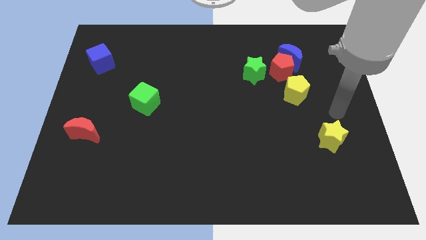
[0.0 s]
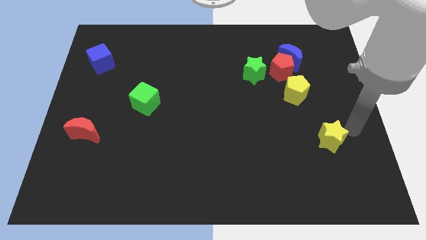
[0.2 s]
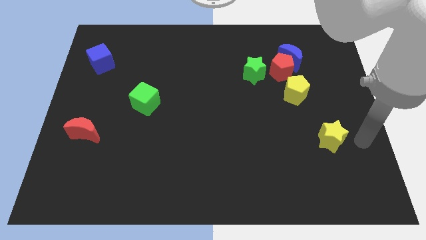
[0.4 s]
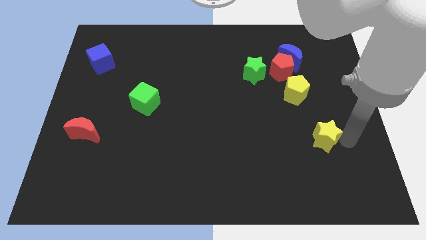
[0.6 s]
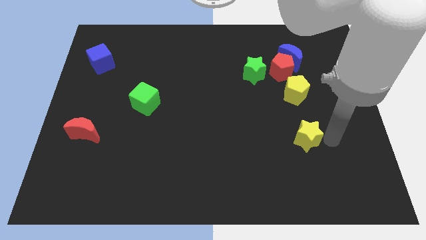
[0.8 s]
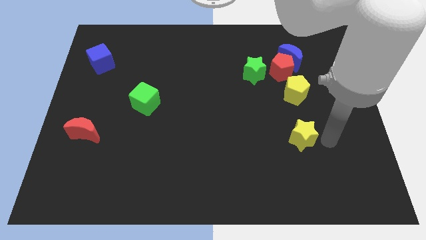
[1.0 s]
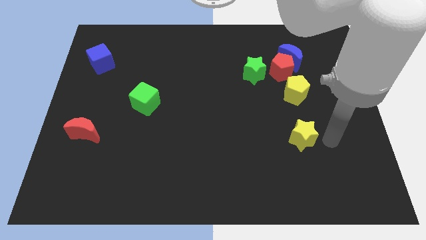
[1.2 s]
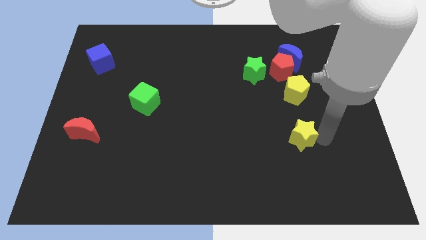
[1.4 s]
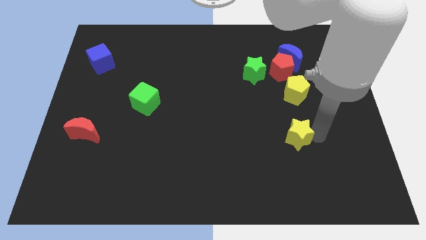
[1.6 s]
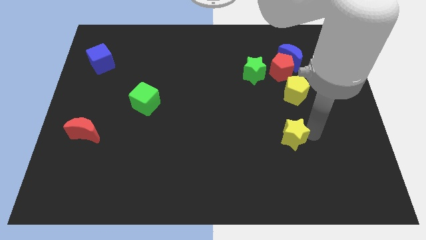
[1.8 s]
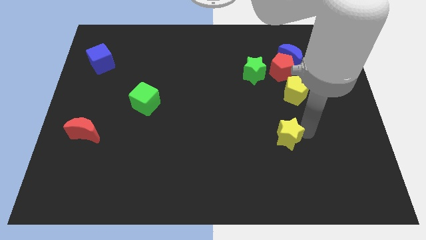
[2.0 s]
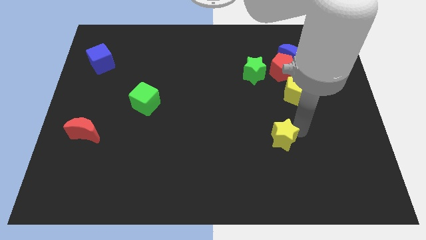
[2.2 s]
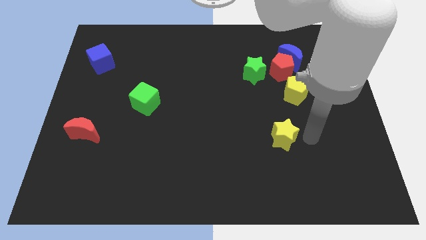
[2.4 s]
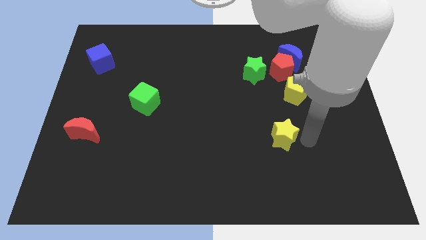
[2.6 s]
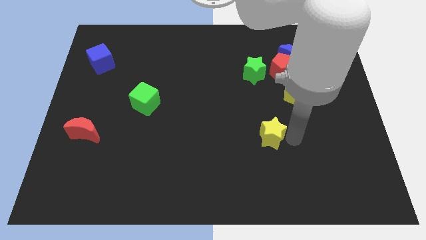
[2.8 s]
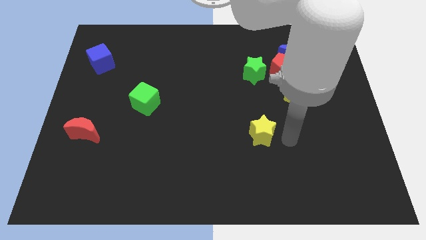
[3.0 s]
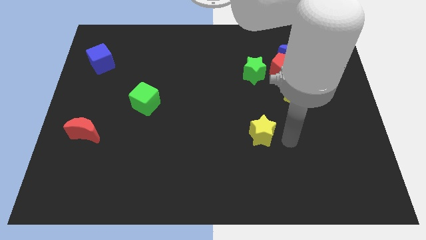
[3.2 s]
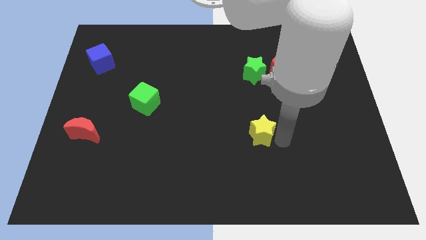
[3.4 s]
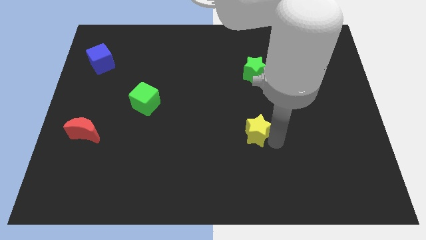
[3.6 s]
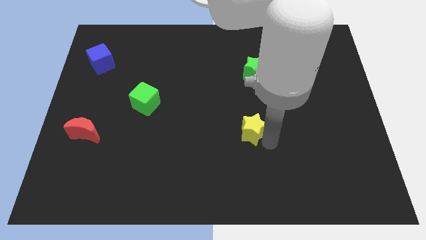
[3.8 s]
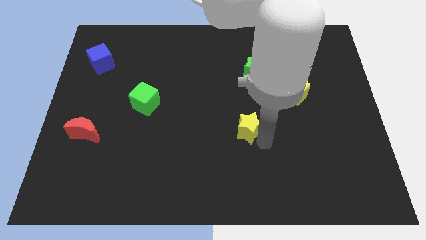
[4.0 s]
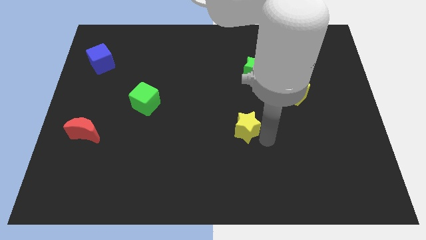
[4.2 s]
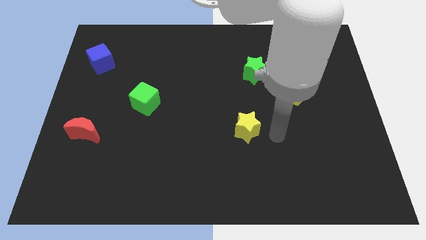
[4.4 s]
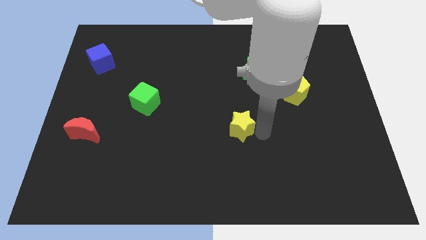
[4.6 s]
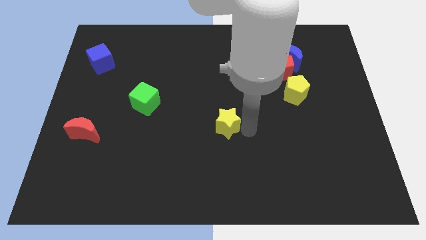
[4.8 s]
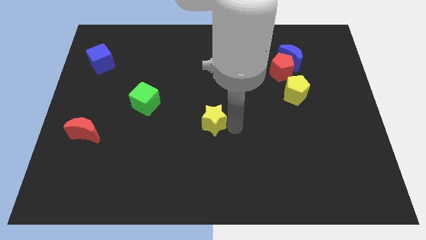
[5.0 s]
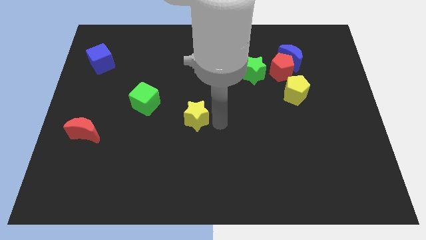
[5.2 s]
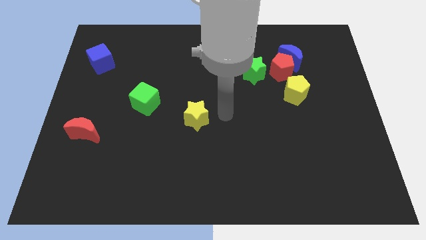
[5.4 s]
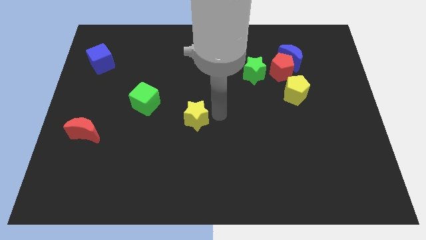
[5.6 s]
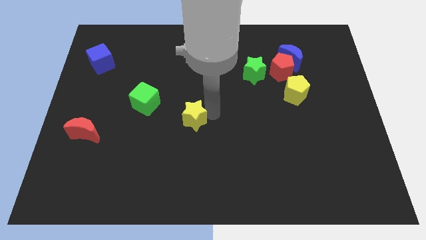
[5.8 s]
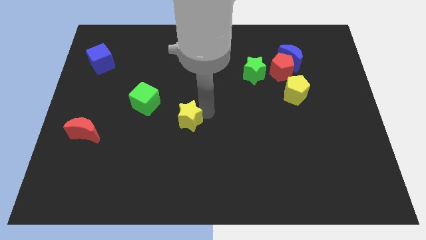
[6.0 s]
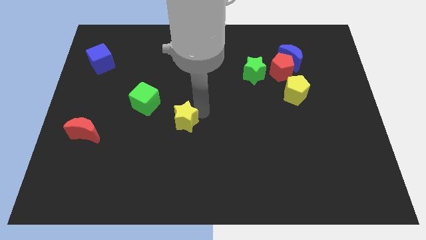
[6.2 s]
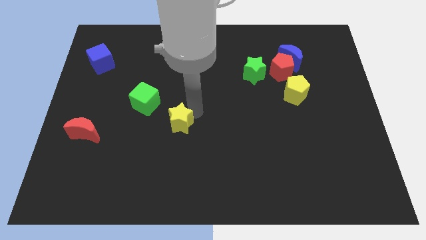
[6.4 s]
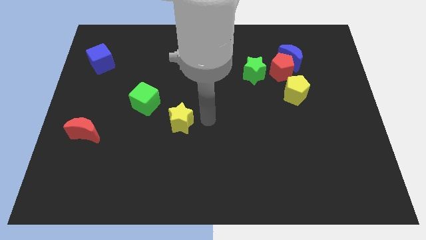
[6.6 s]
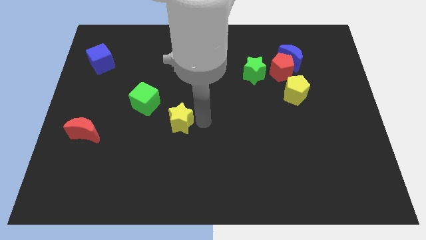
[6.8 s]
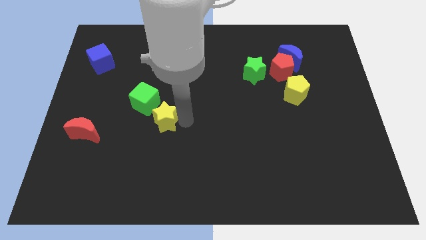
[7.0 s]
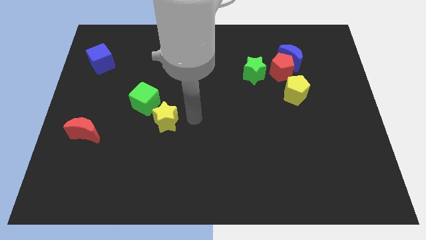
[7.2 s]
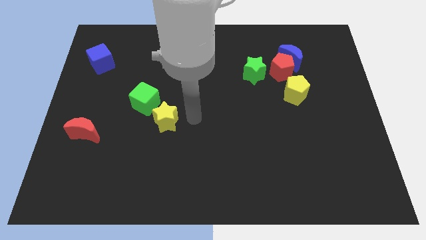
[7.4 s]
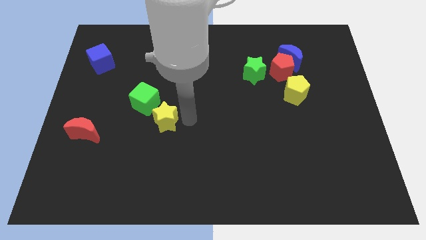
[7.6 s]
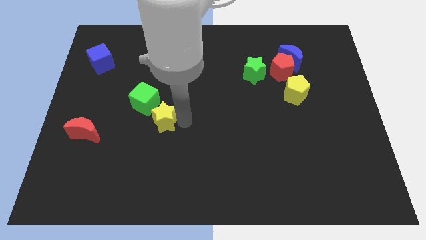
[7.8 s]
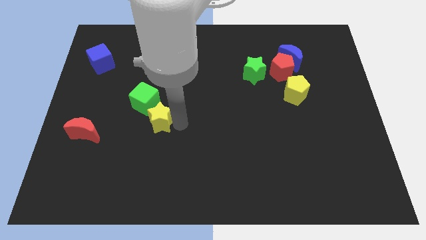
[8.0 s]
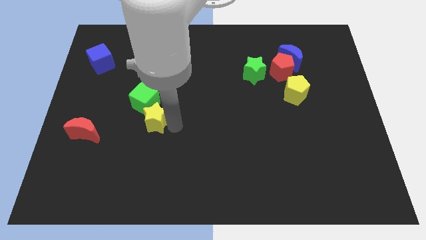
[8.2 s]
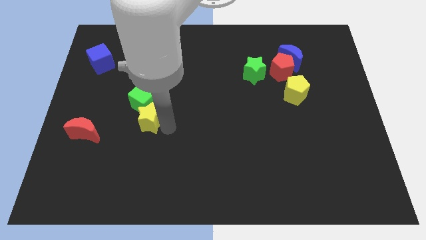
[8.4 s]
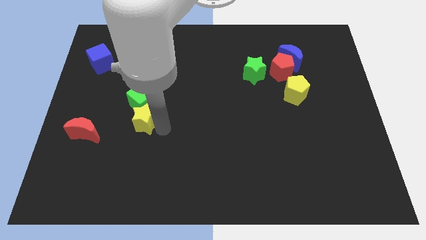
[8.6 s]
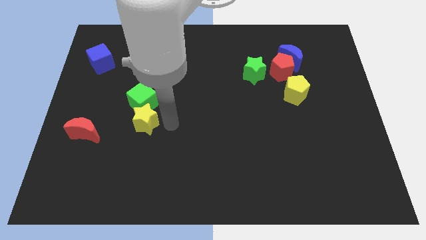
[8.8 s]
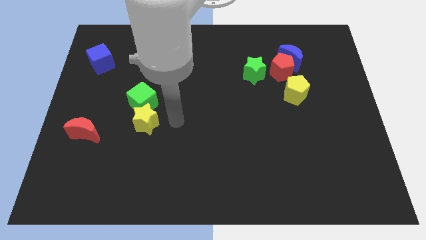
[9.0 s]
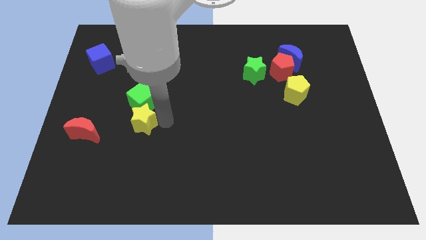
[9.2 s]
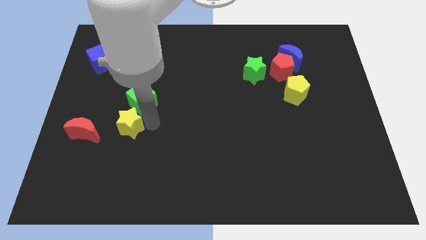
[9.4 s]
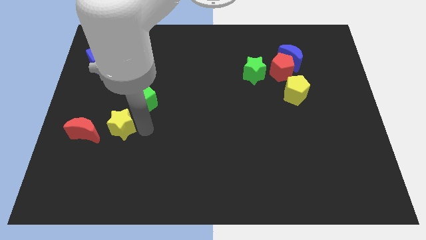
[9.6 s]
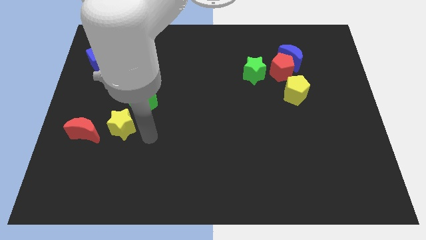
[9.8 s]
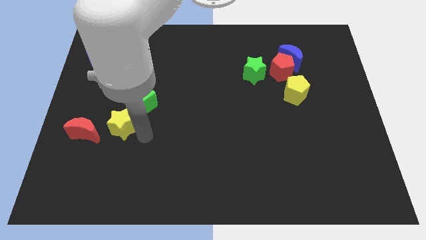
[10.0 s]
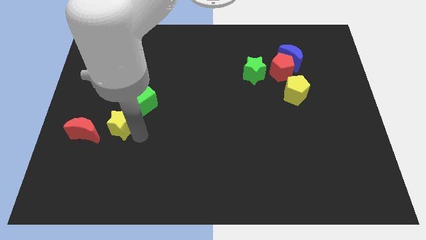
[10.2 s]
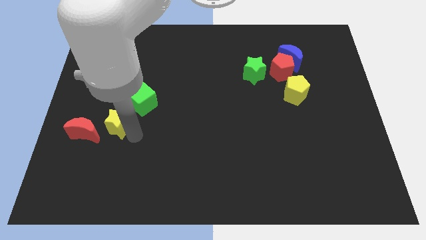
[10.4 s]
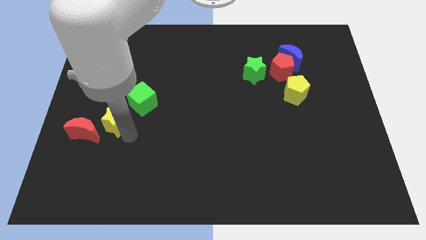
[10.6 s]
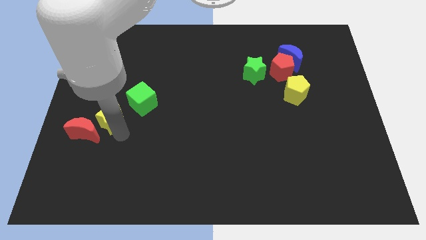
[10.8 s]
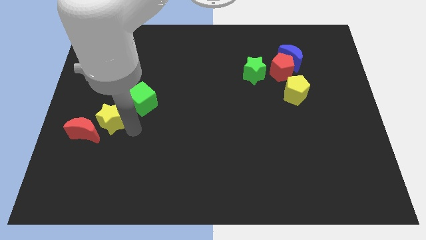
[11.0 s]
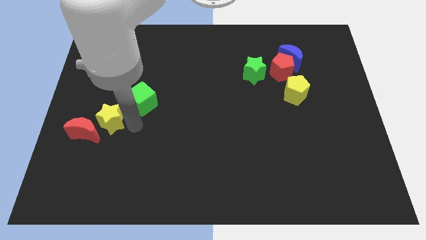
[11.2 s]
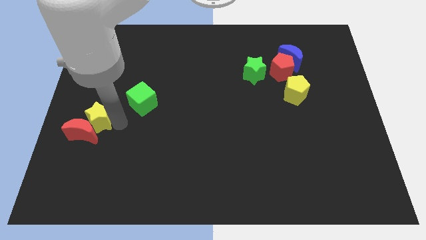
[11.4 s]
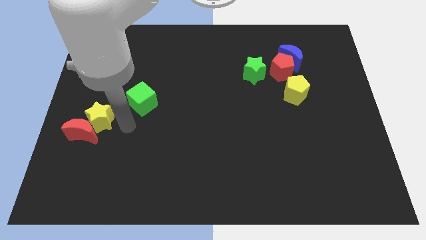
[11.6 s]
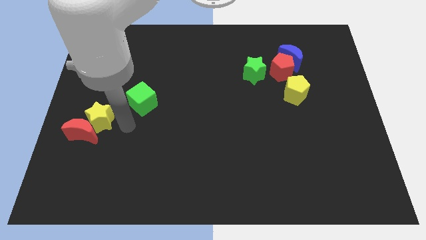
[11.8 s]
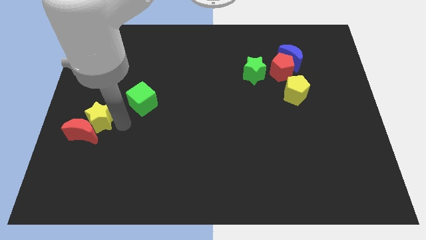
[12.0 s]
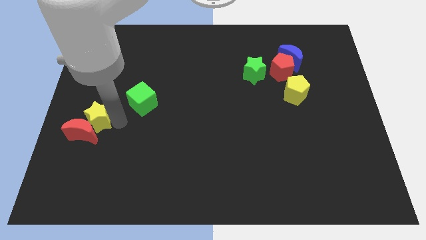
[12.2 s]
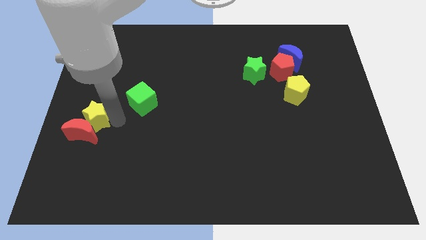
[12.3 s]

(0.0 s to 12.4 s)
move the yellow star to the left side

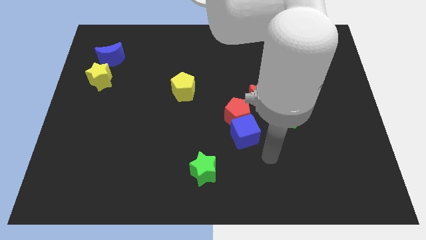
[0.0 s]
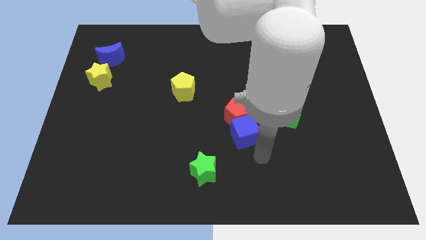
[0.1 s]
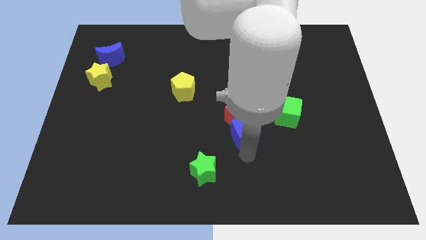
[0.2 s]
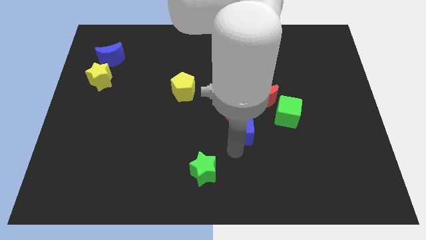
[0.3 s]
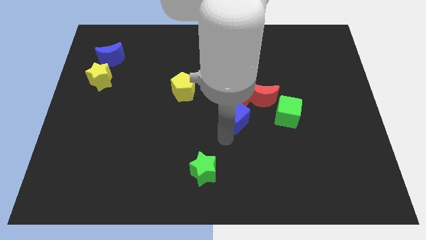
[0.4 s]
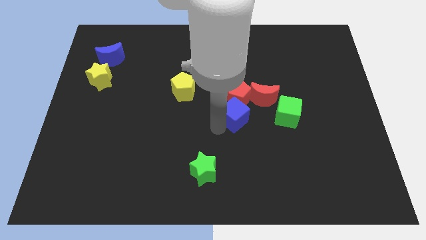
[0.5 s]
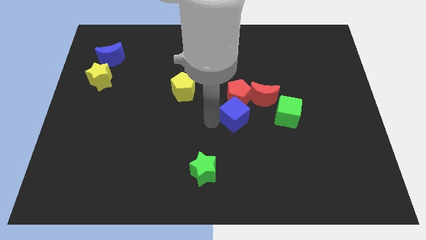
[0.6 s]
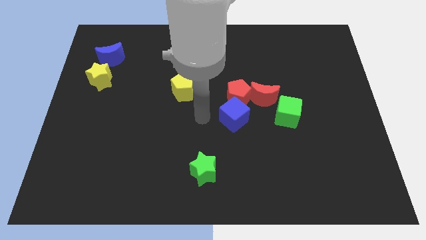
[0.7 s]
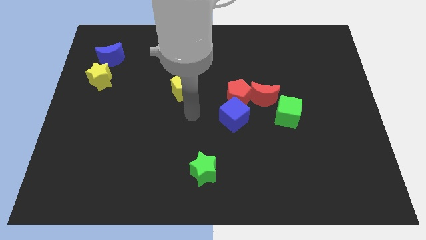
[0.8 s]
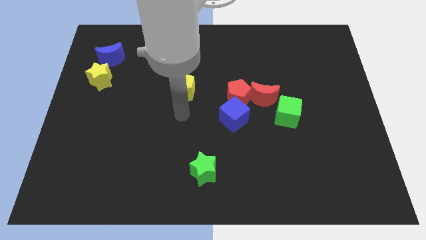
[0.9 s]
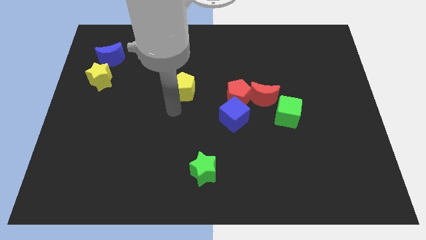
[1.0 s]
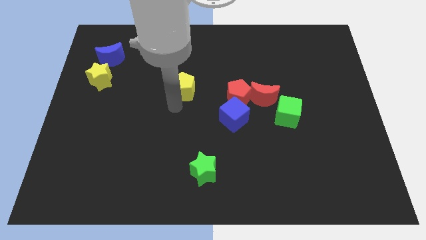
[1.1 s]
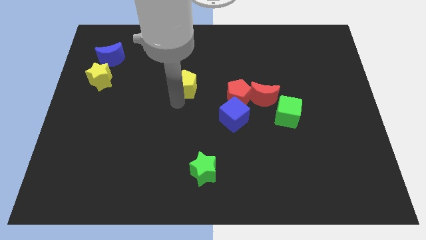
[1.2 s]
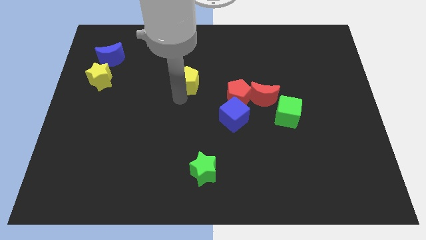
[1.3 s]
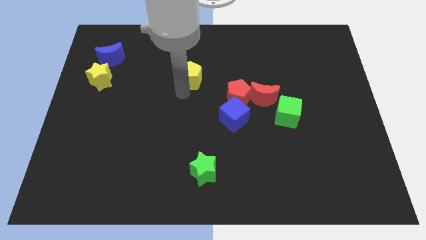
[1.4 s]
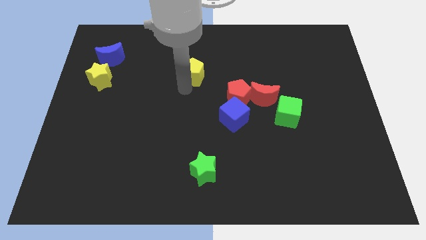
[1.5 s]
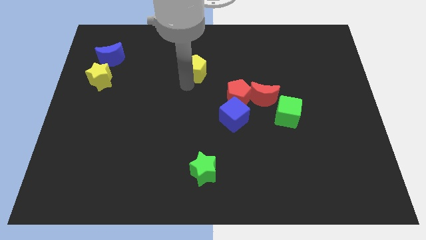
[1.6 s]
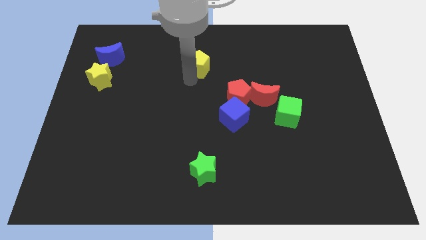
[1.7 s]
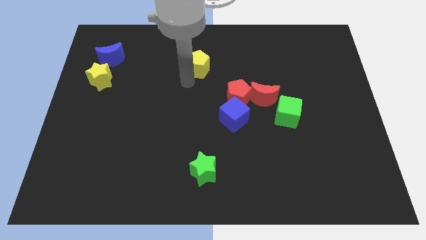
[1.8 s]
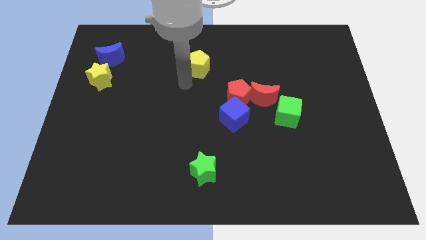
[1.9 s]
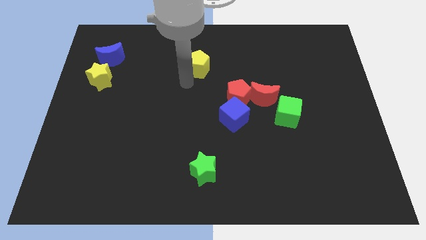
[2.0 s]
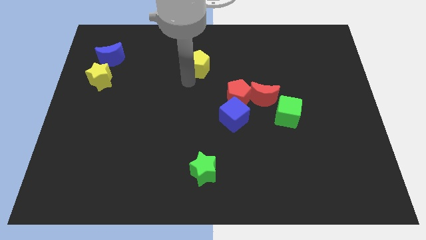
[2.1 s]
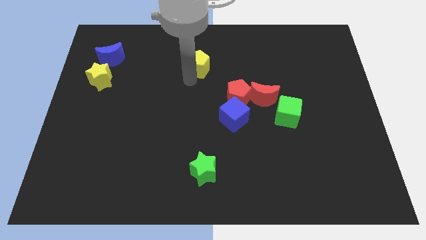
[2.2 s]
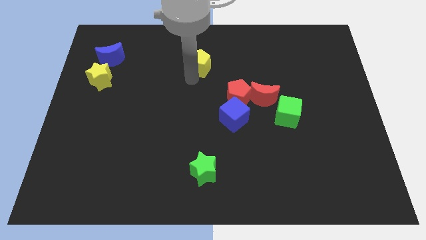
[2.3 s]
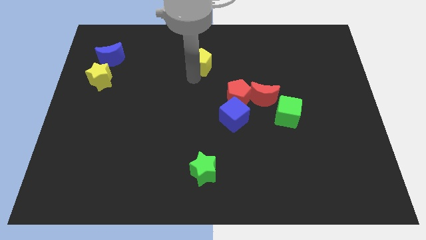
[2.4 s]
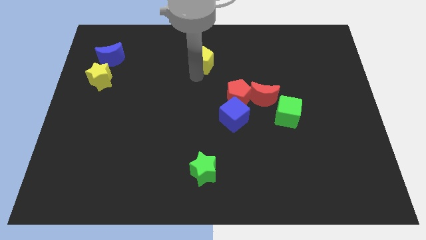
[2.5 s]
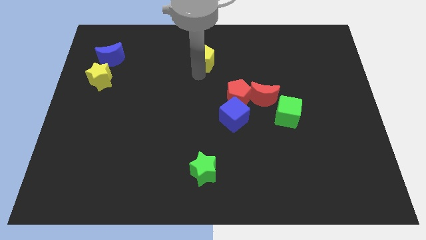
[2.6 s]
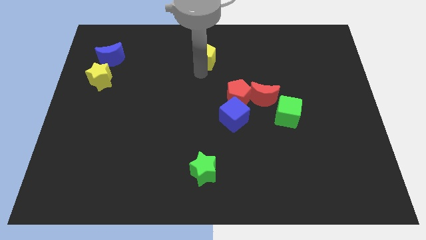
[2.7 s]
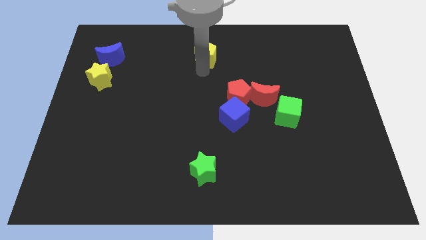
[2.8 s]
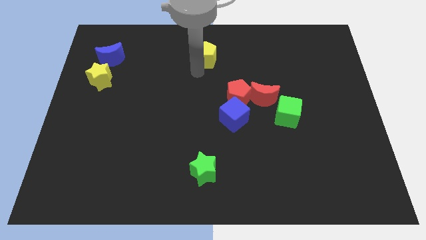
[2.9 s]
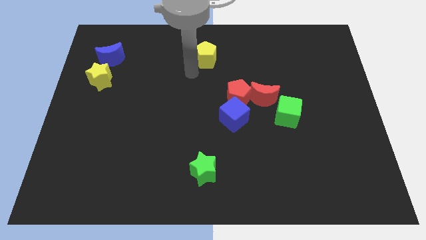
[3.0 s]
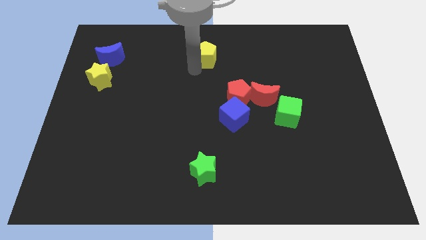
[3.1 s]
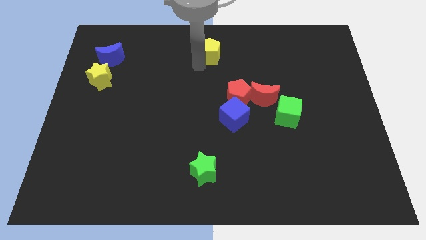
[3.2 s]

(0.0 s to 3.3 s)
move the yellow pentagon to the top side
